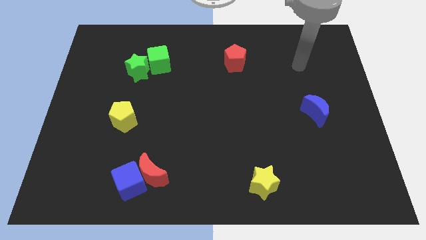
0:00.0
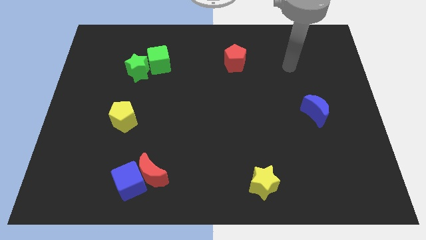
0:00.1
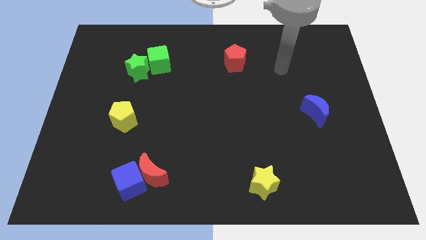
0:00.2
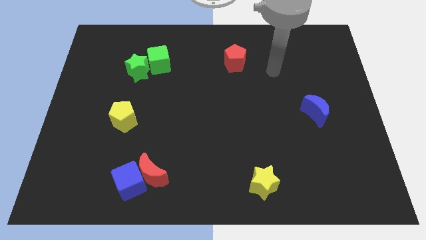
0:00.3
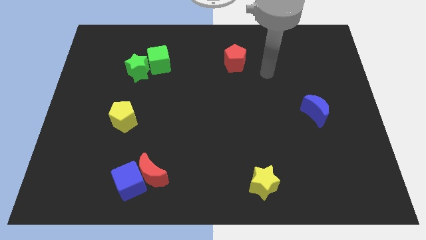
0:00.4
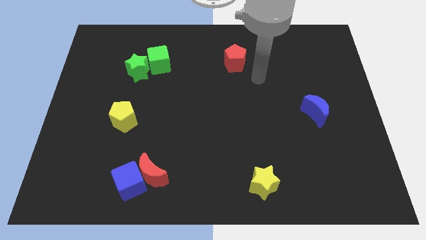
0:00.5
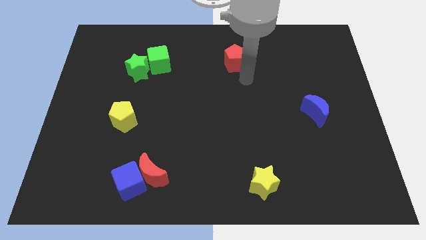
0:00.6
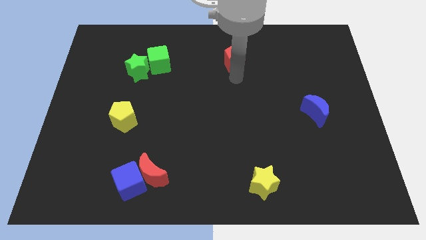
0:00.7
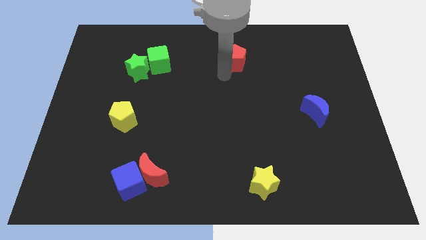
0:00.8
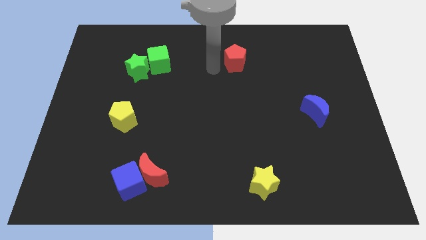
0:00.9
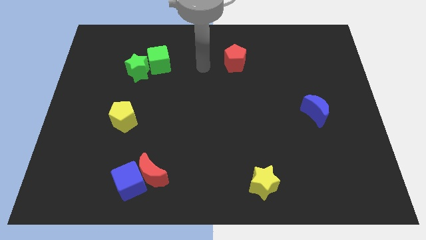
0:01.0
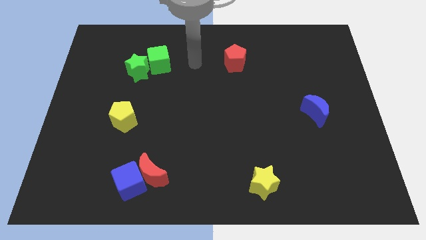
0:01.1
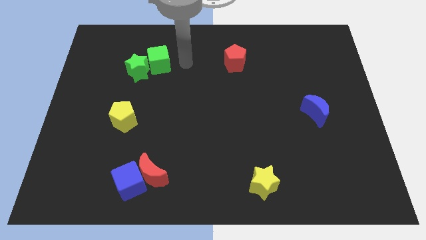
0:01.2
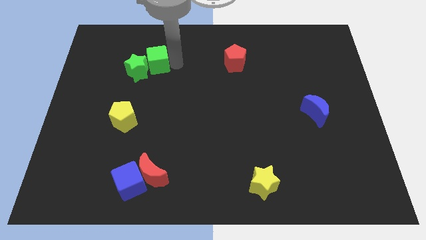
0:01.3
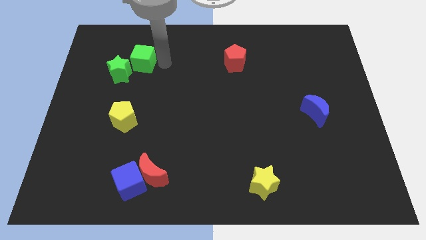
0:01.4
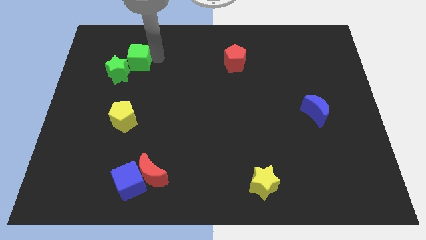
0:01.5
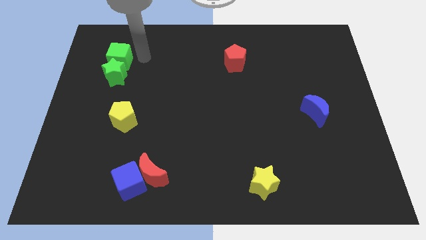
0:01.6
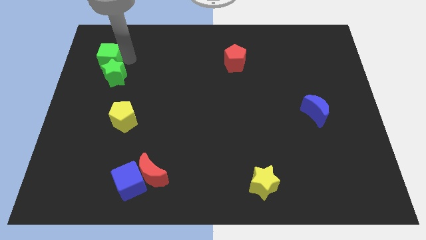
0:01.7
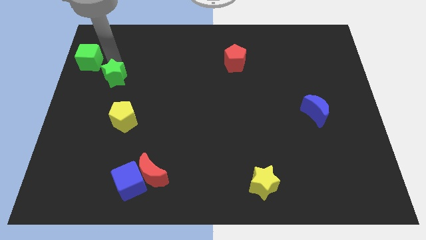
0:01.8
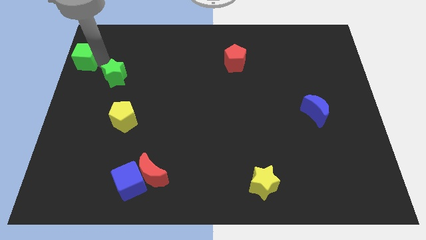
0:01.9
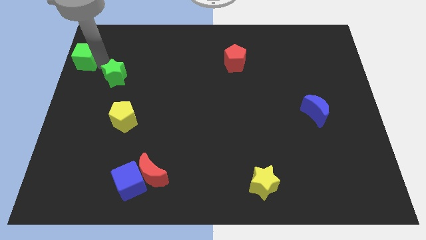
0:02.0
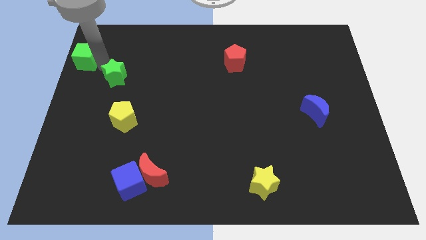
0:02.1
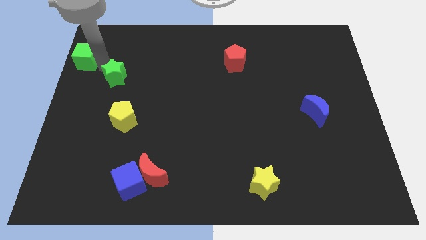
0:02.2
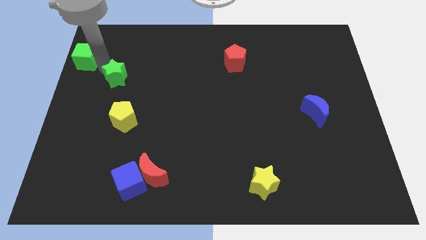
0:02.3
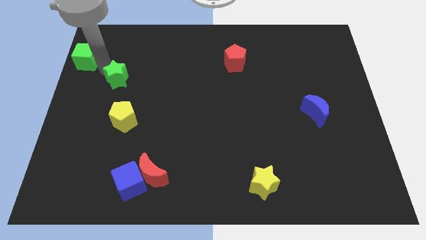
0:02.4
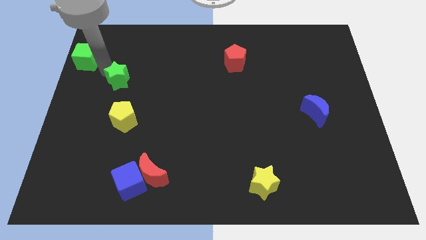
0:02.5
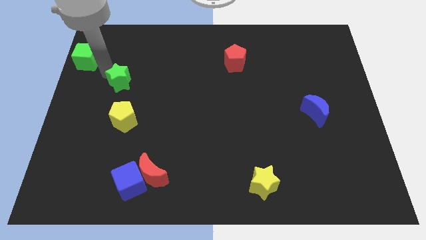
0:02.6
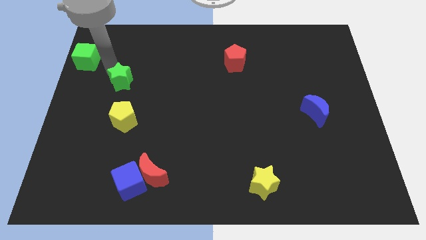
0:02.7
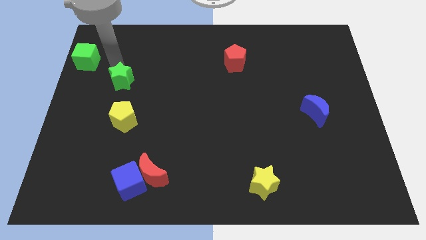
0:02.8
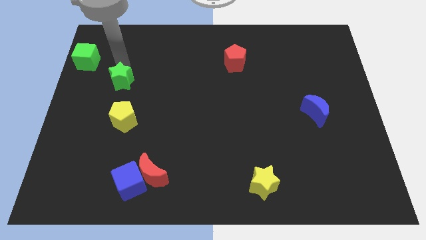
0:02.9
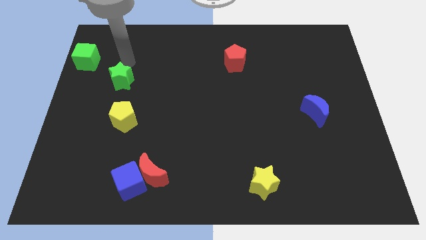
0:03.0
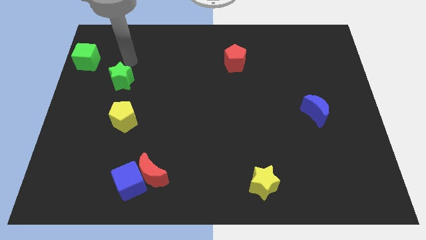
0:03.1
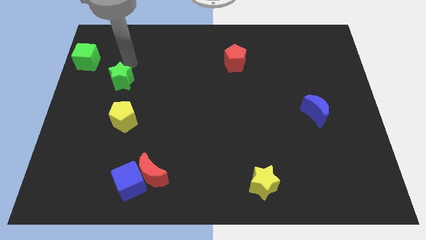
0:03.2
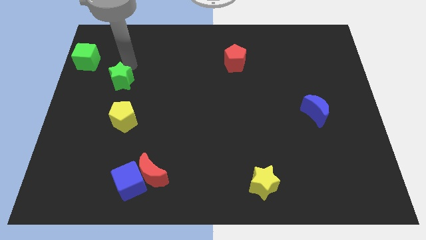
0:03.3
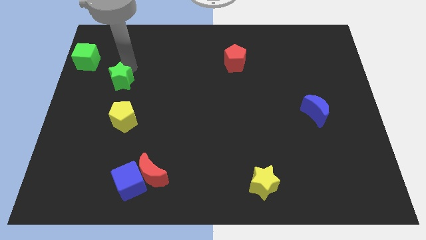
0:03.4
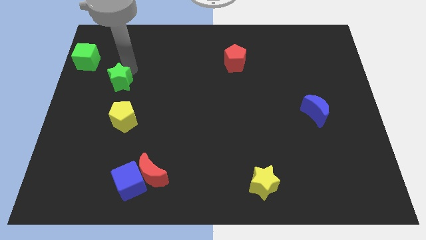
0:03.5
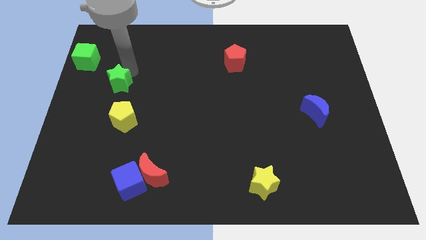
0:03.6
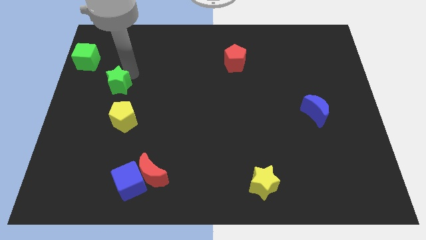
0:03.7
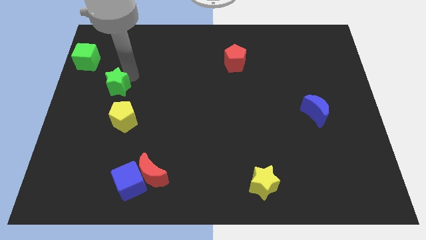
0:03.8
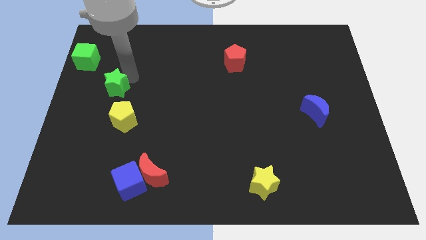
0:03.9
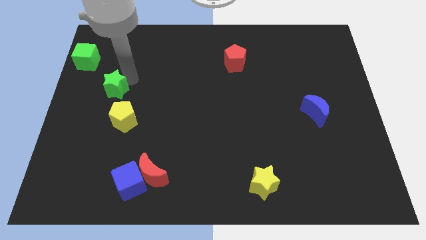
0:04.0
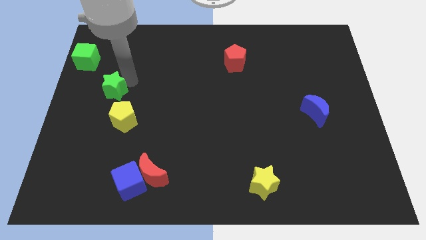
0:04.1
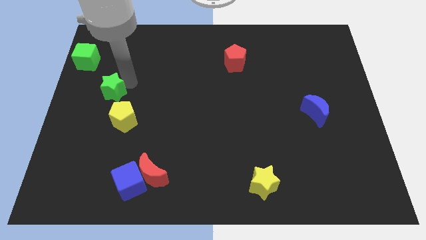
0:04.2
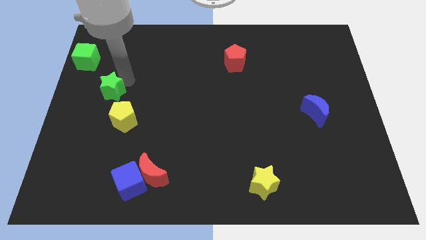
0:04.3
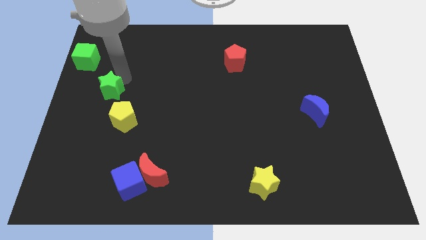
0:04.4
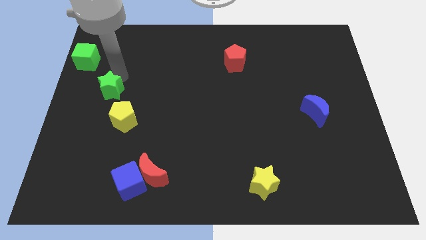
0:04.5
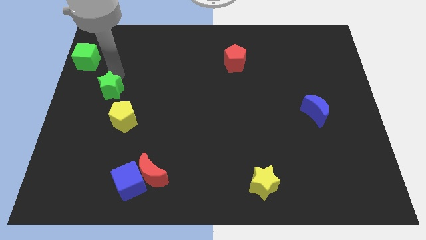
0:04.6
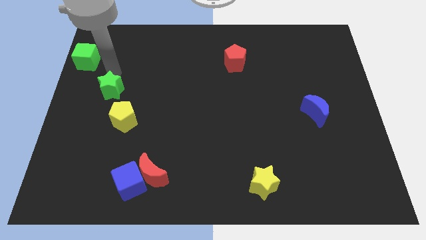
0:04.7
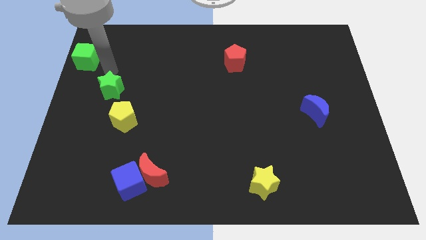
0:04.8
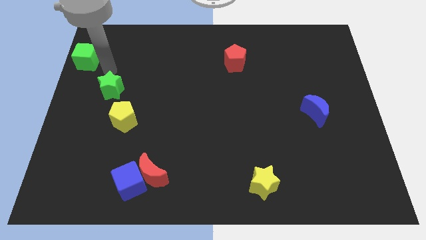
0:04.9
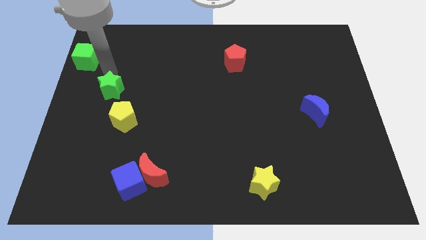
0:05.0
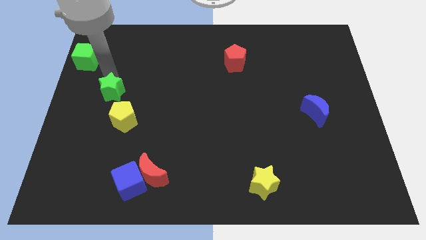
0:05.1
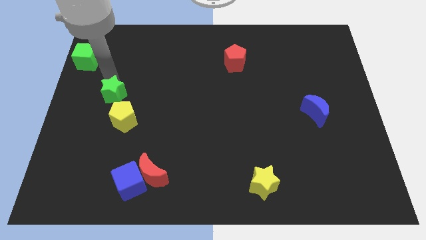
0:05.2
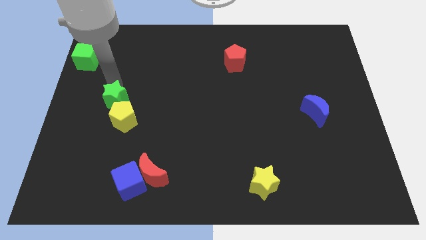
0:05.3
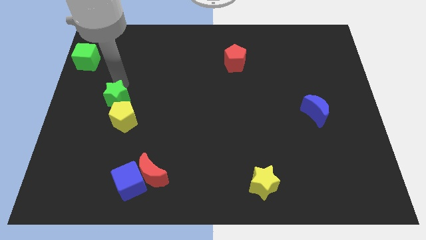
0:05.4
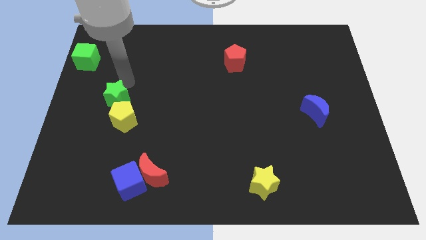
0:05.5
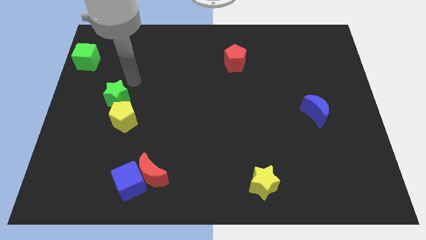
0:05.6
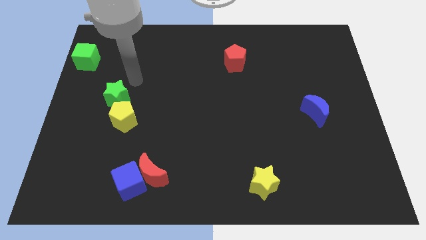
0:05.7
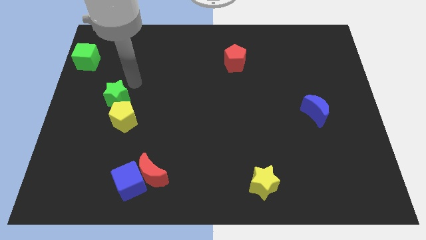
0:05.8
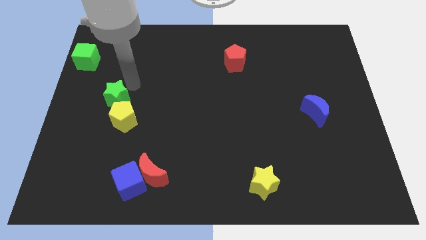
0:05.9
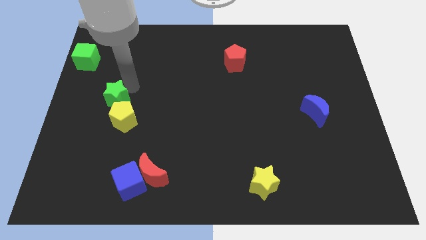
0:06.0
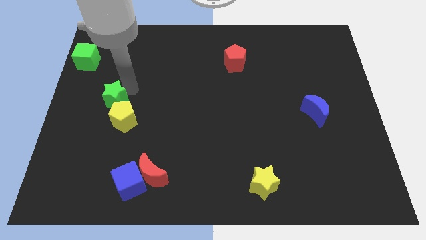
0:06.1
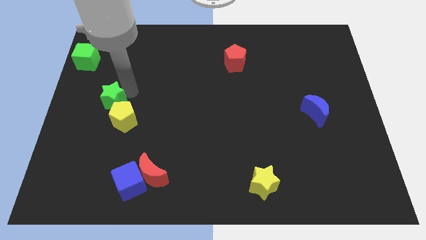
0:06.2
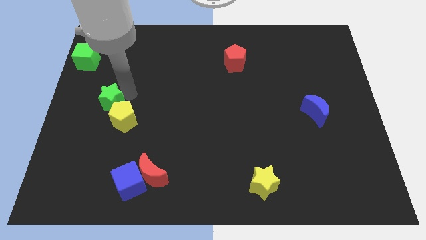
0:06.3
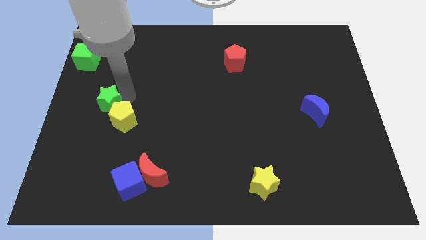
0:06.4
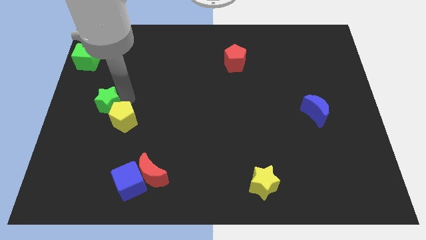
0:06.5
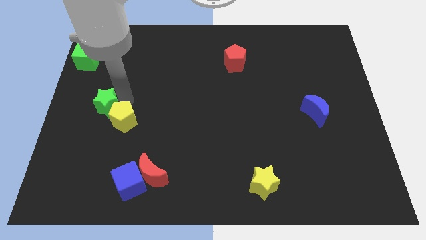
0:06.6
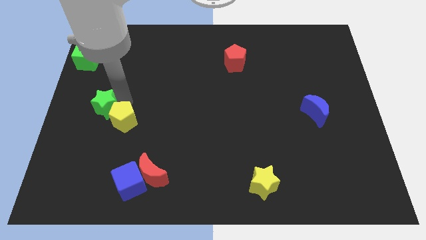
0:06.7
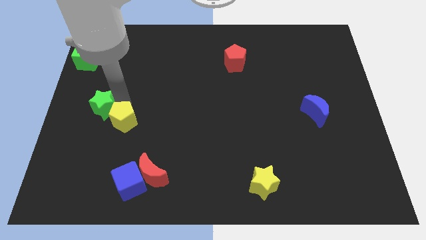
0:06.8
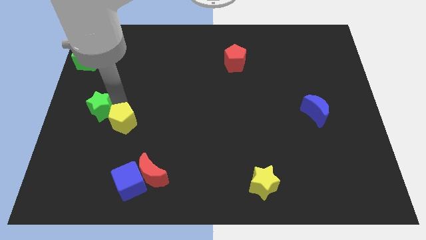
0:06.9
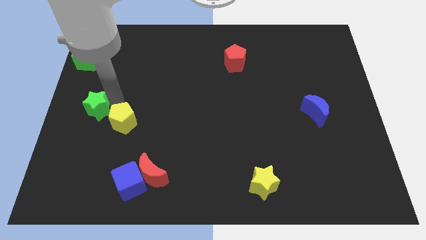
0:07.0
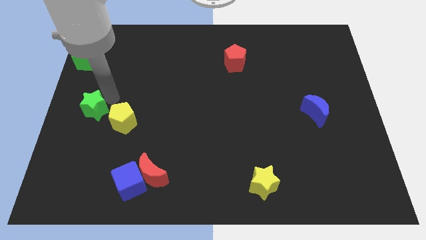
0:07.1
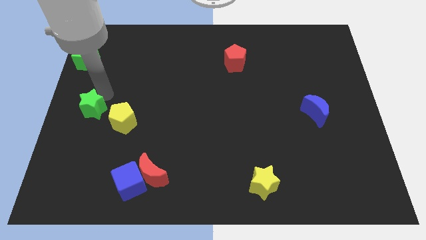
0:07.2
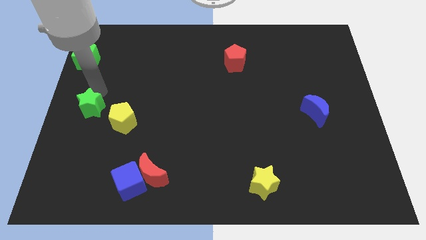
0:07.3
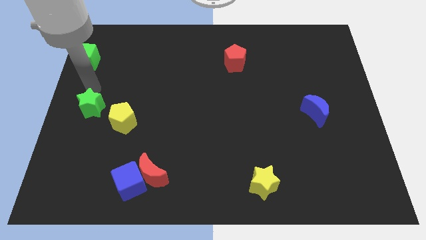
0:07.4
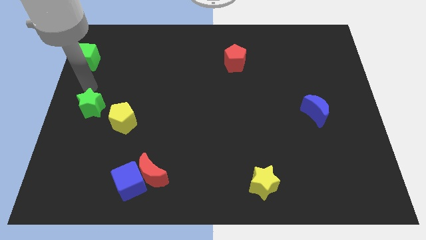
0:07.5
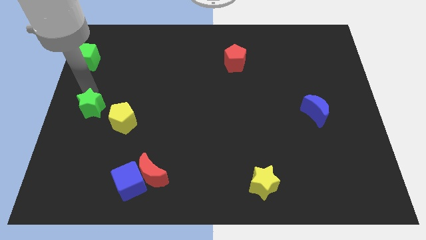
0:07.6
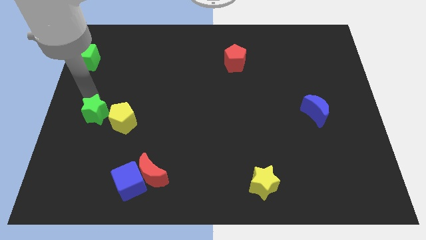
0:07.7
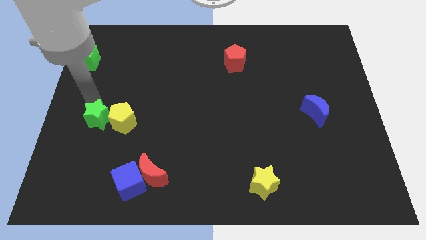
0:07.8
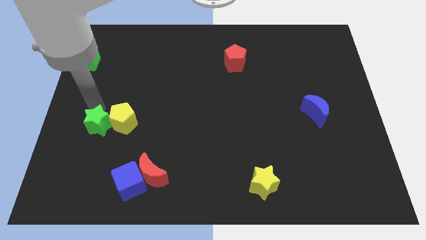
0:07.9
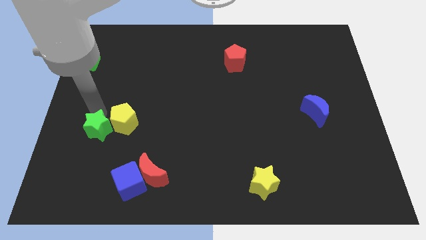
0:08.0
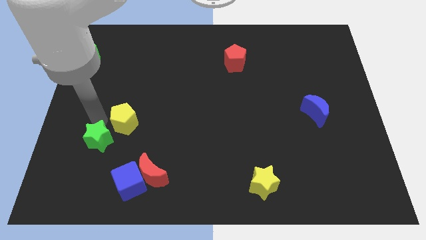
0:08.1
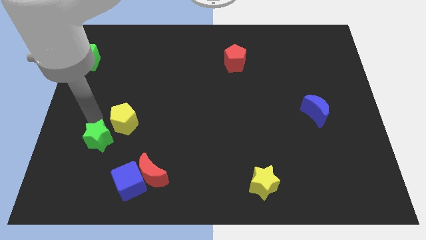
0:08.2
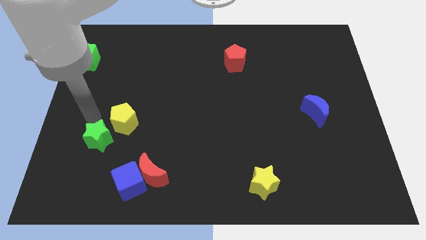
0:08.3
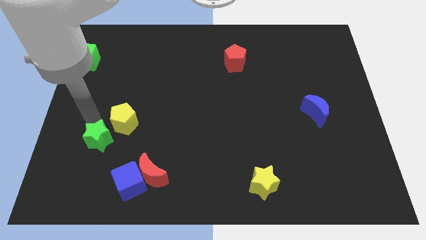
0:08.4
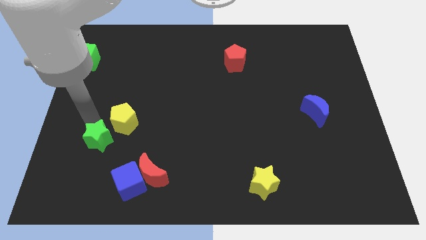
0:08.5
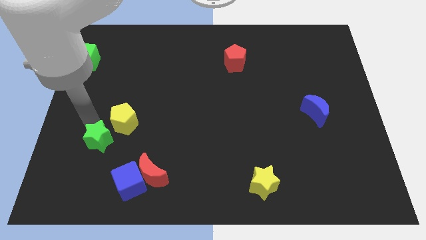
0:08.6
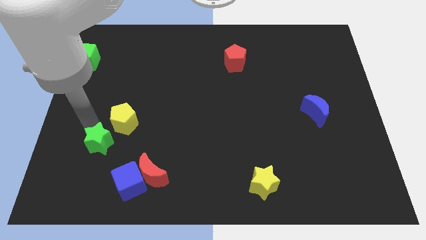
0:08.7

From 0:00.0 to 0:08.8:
move the green star to the top left of the blue cube

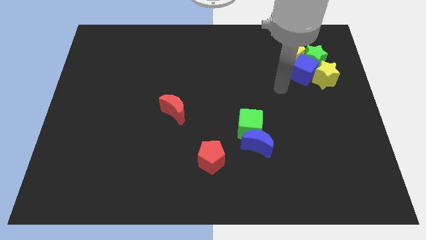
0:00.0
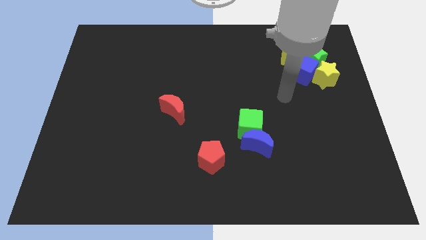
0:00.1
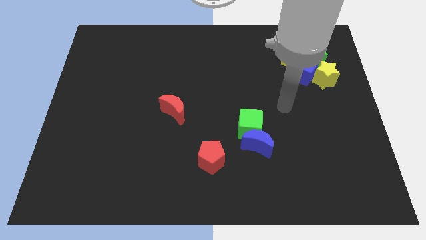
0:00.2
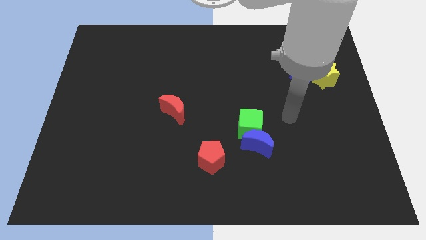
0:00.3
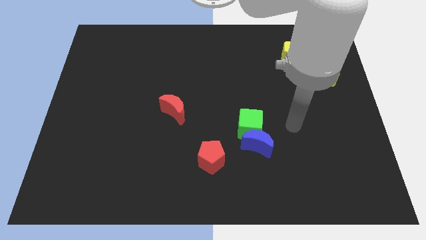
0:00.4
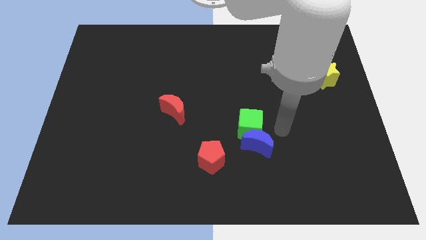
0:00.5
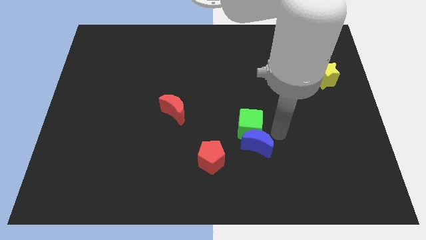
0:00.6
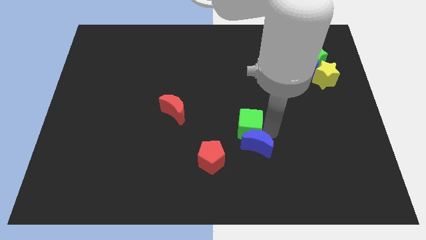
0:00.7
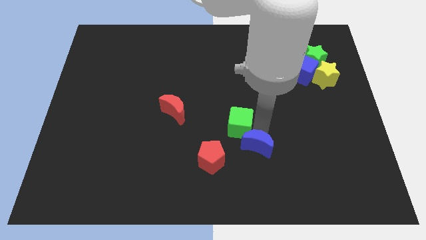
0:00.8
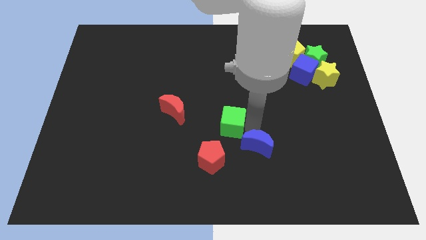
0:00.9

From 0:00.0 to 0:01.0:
move the green cube above the red pentagon
